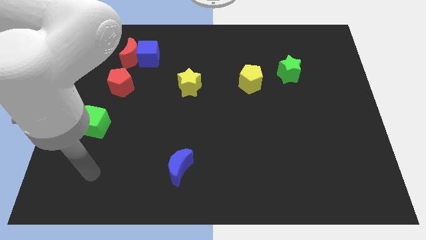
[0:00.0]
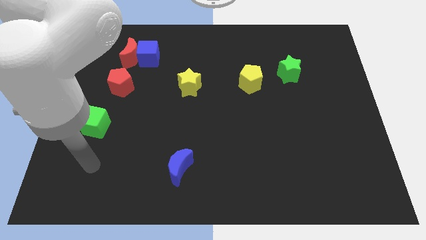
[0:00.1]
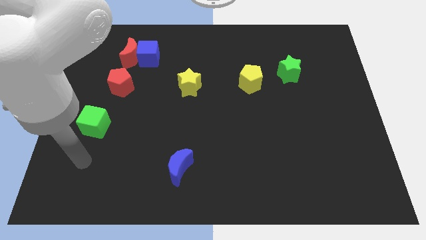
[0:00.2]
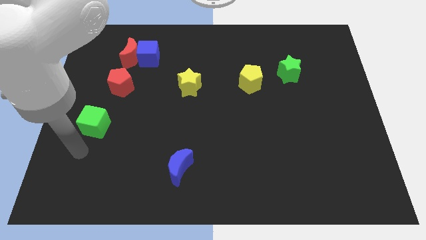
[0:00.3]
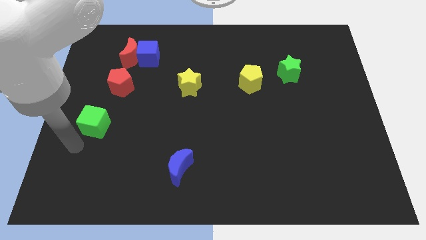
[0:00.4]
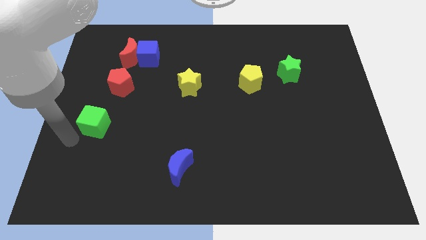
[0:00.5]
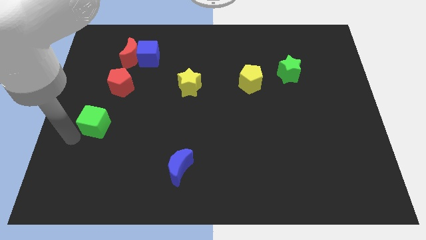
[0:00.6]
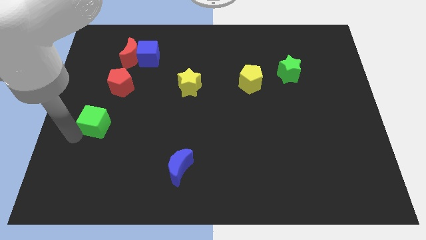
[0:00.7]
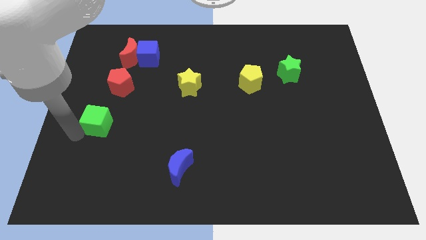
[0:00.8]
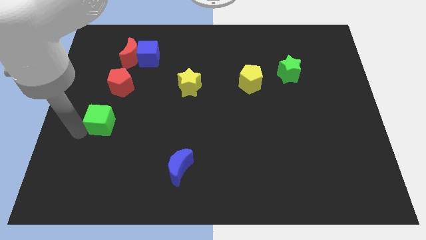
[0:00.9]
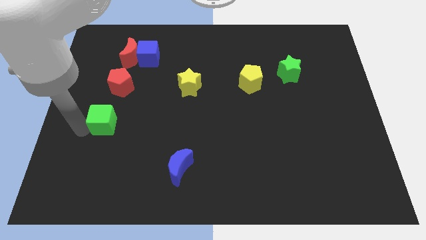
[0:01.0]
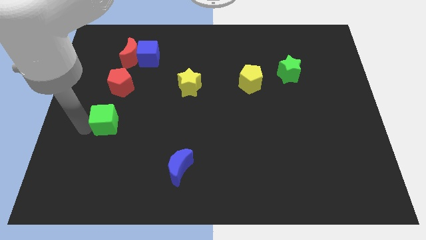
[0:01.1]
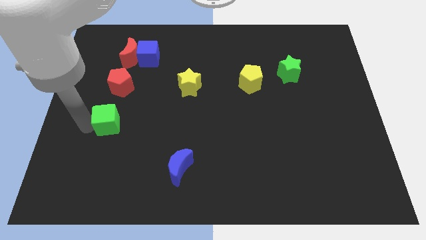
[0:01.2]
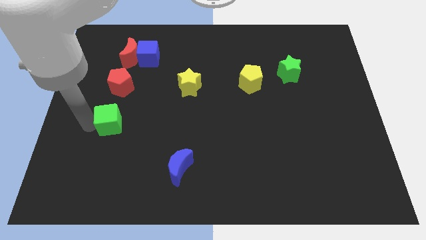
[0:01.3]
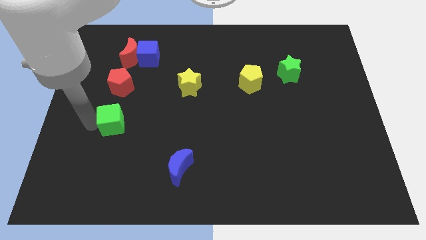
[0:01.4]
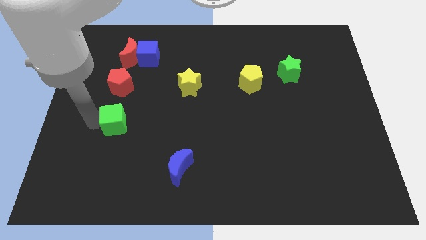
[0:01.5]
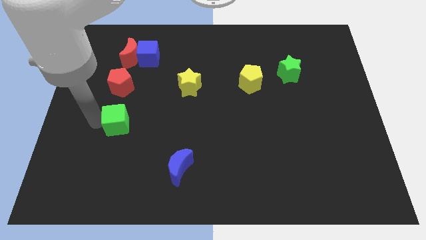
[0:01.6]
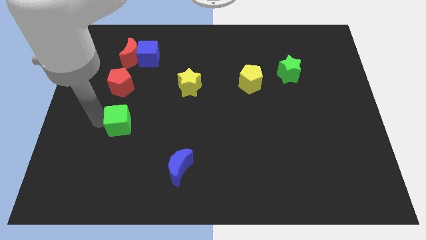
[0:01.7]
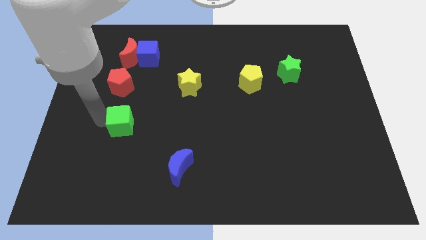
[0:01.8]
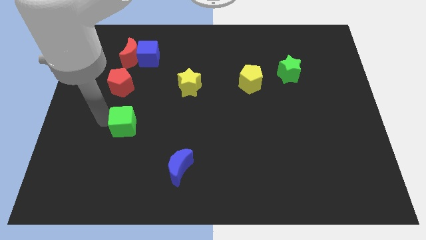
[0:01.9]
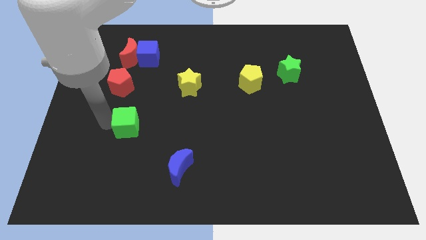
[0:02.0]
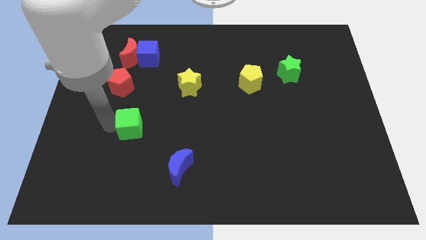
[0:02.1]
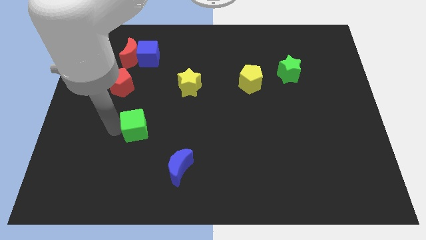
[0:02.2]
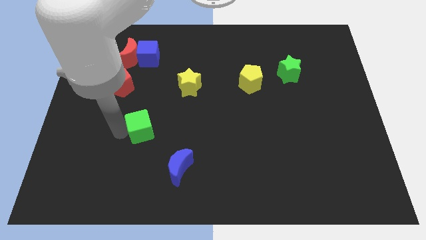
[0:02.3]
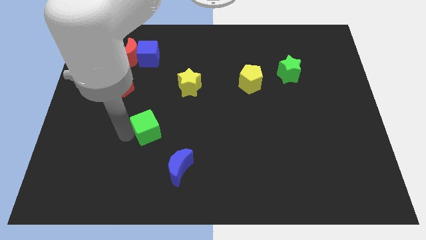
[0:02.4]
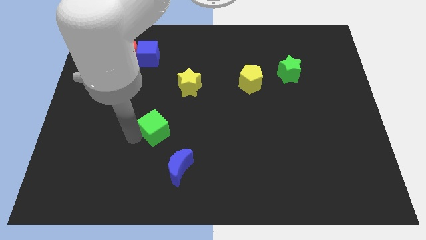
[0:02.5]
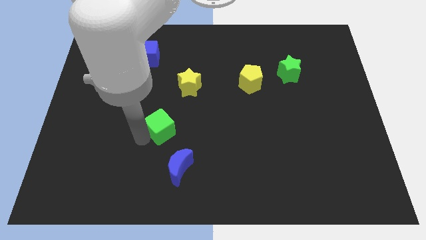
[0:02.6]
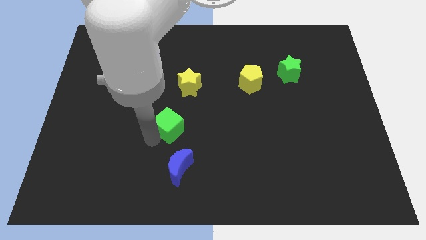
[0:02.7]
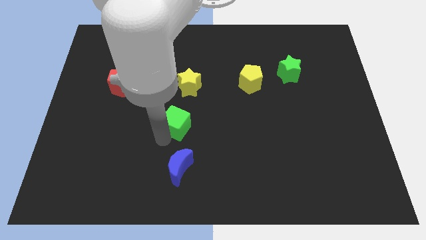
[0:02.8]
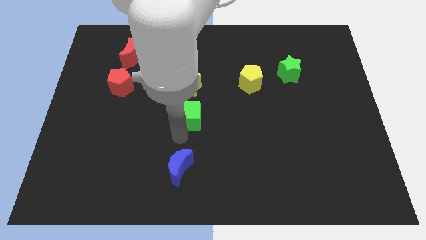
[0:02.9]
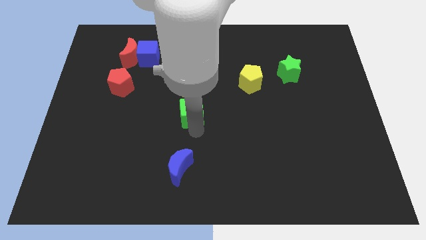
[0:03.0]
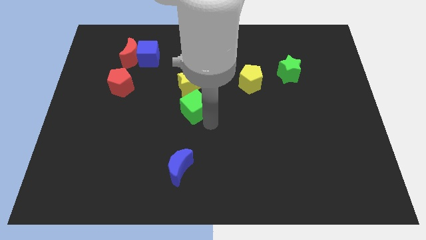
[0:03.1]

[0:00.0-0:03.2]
slide the green cube upwards and right a bit

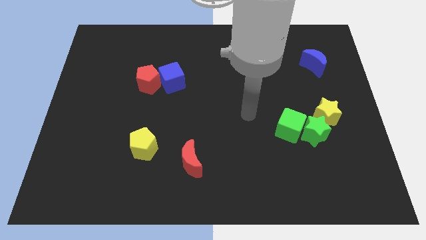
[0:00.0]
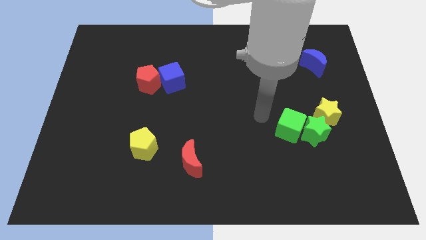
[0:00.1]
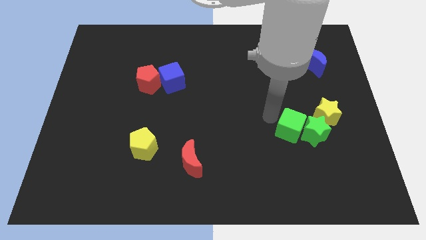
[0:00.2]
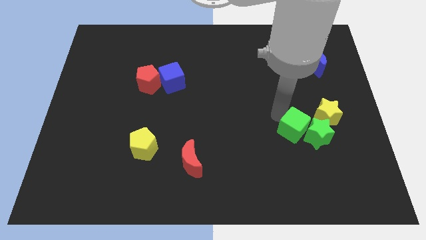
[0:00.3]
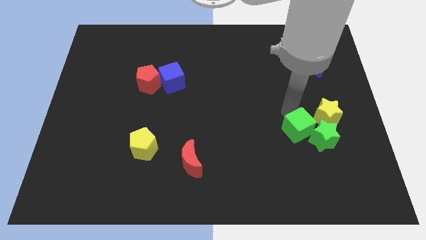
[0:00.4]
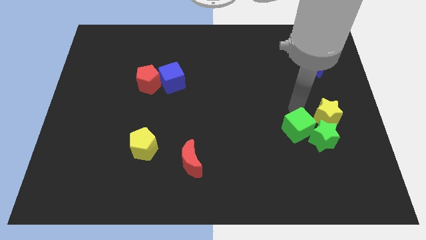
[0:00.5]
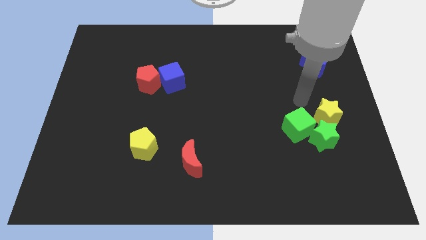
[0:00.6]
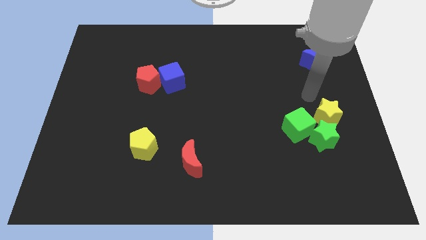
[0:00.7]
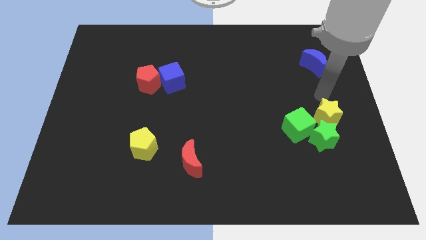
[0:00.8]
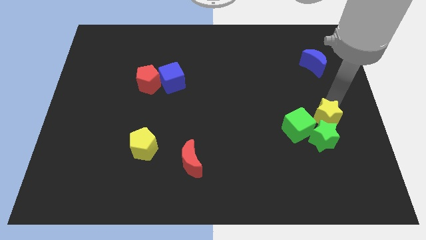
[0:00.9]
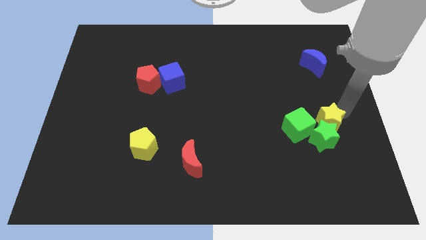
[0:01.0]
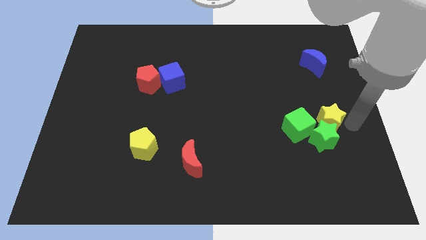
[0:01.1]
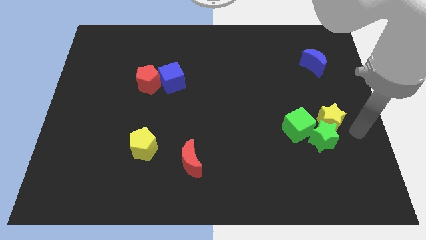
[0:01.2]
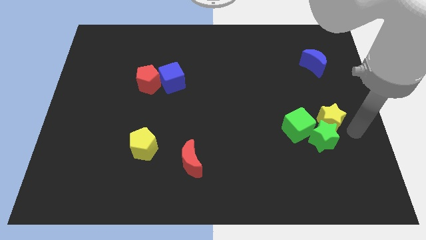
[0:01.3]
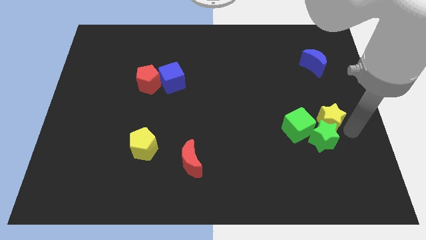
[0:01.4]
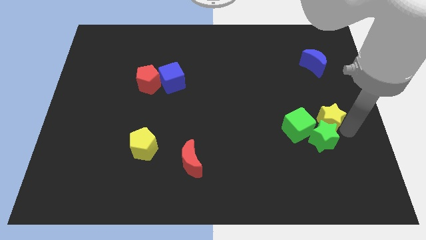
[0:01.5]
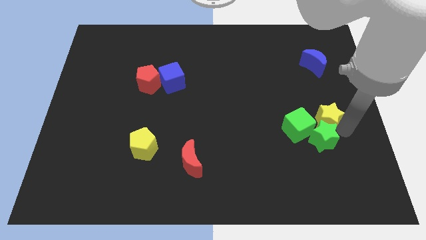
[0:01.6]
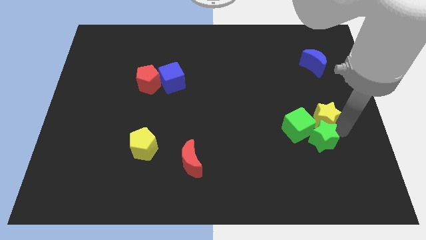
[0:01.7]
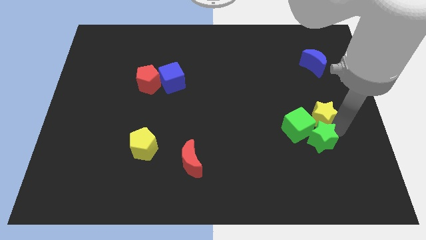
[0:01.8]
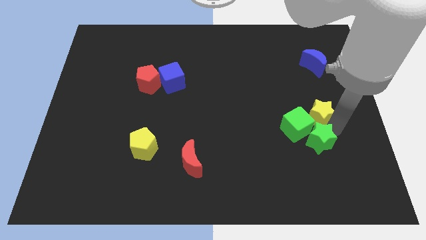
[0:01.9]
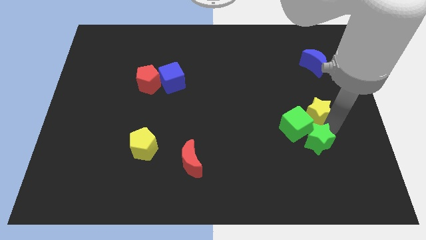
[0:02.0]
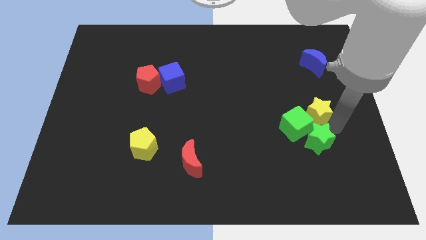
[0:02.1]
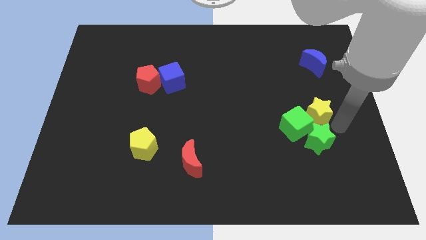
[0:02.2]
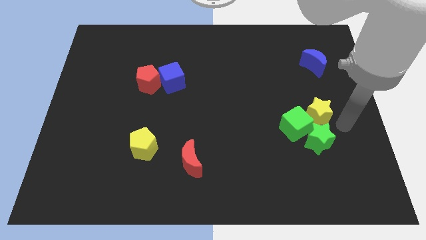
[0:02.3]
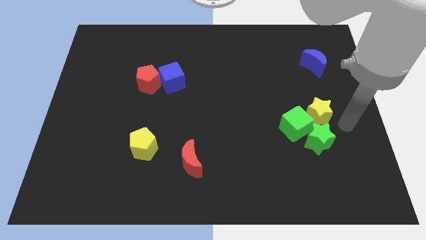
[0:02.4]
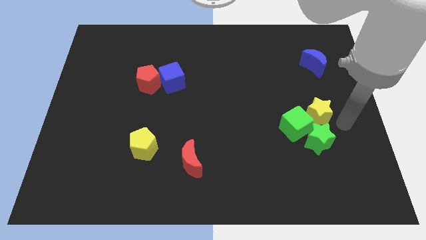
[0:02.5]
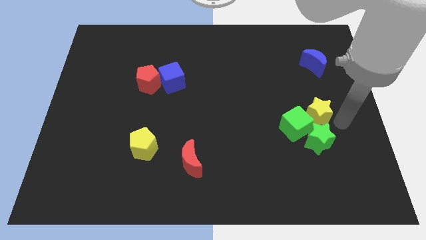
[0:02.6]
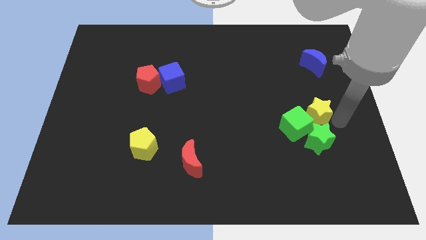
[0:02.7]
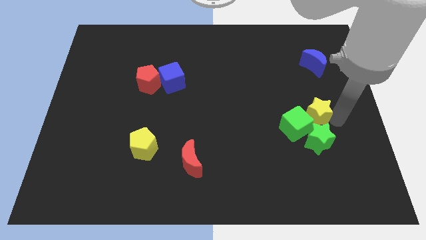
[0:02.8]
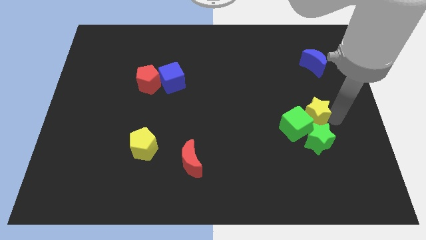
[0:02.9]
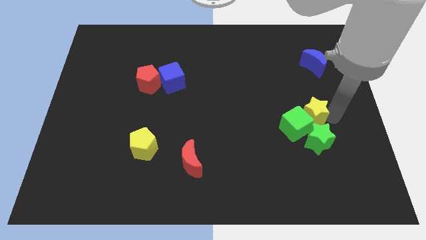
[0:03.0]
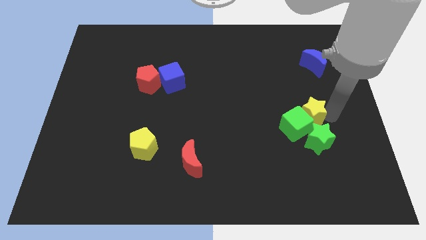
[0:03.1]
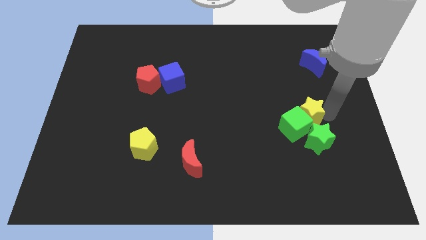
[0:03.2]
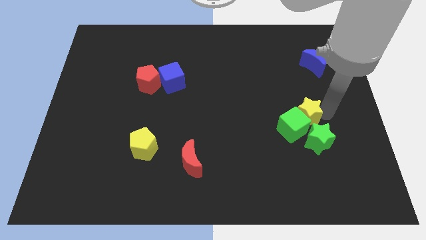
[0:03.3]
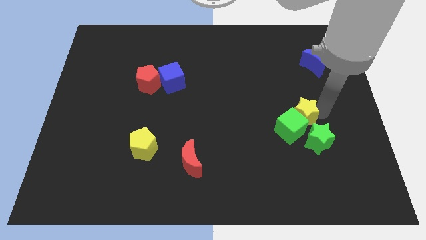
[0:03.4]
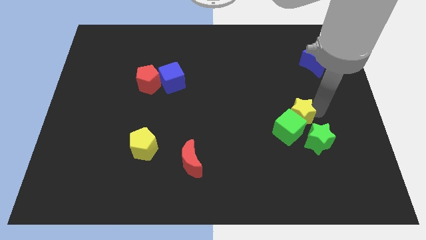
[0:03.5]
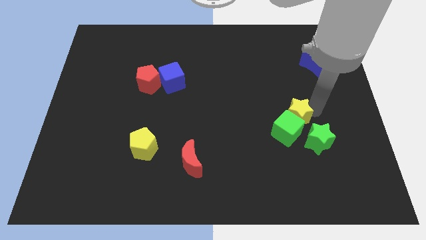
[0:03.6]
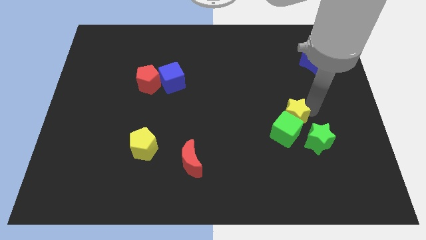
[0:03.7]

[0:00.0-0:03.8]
slightly push the yellow star left

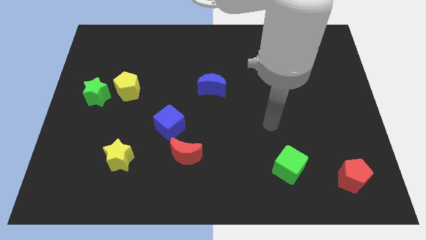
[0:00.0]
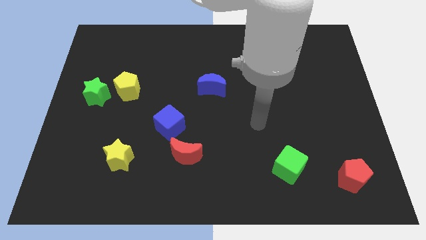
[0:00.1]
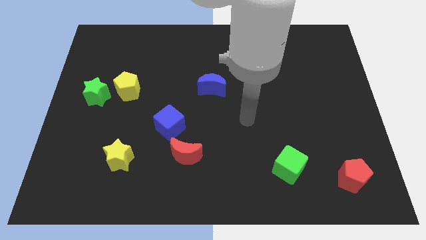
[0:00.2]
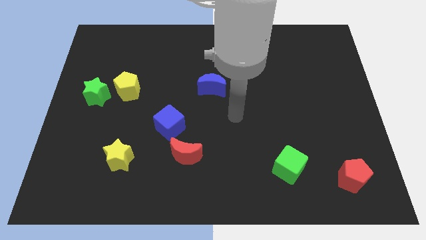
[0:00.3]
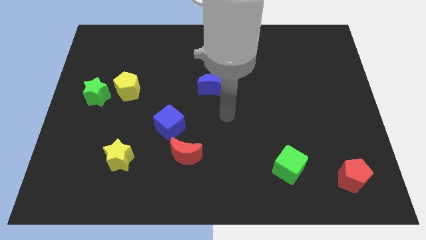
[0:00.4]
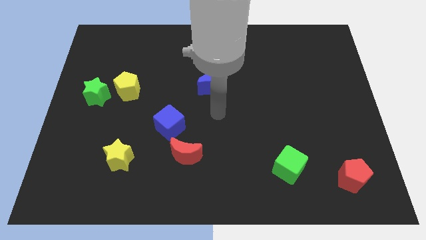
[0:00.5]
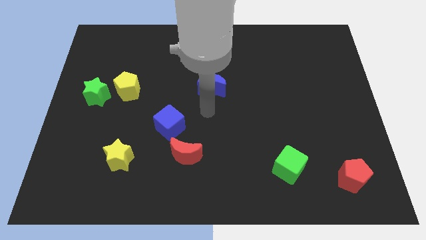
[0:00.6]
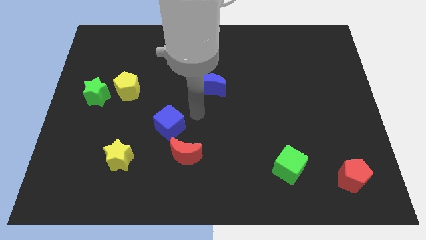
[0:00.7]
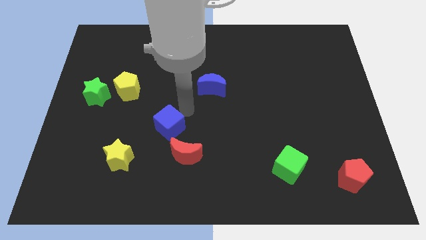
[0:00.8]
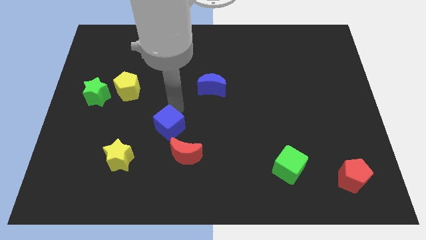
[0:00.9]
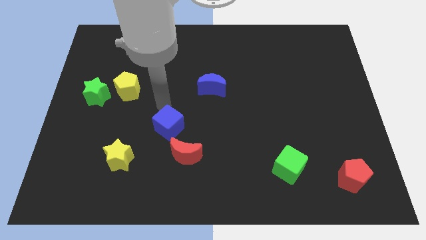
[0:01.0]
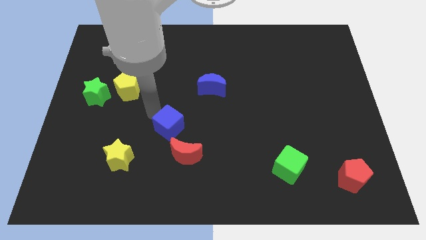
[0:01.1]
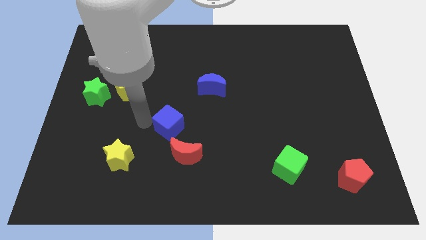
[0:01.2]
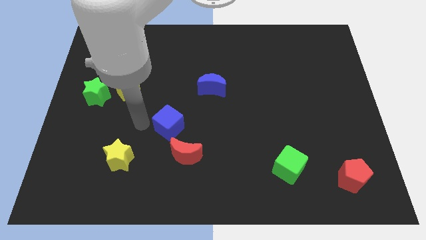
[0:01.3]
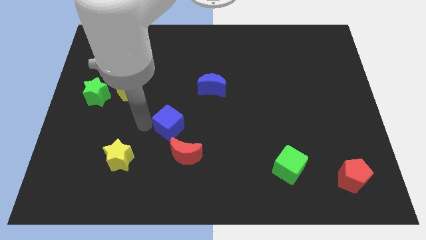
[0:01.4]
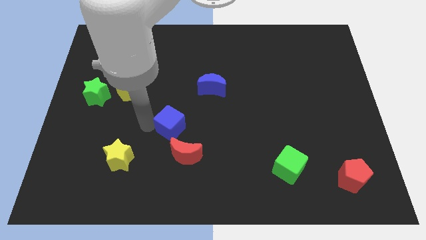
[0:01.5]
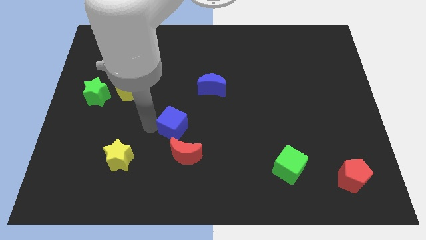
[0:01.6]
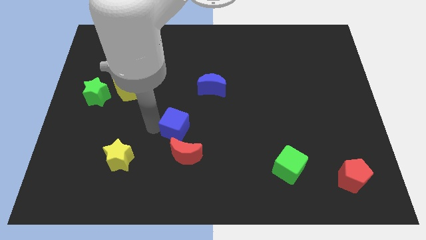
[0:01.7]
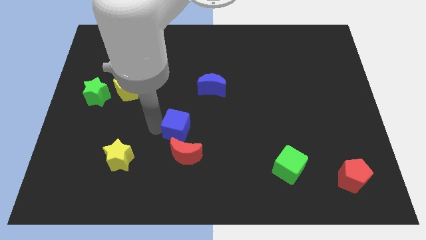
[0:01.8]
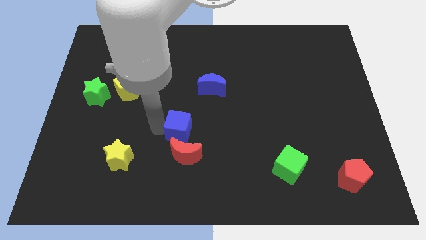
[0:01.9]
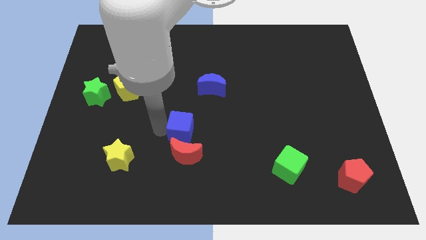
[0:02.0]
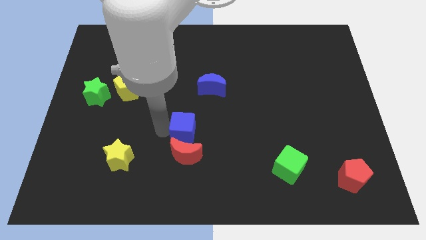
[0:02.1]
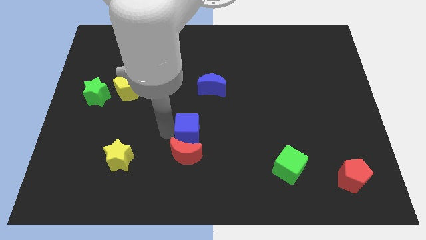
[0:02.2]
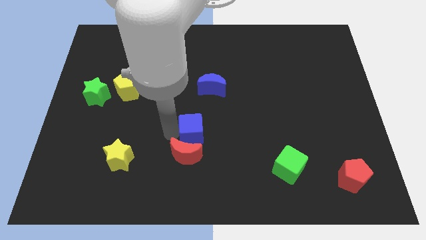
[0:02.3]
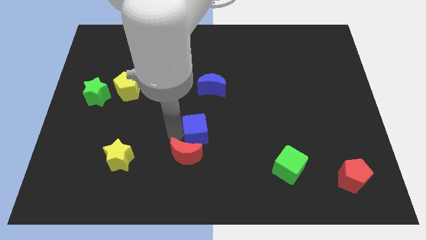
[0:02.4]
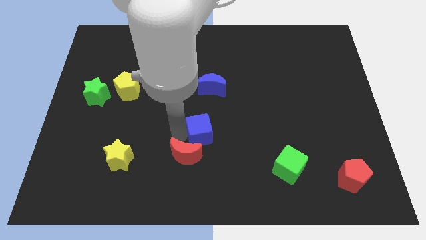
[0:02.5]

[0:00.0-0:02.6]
slightly slide the blue cube right
